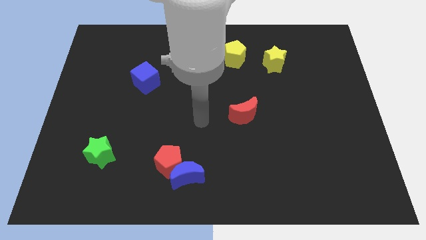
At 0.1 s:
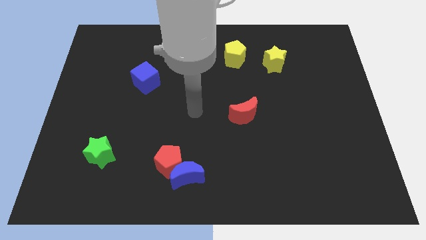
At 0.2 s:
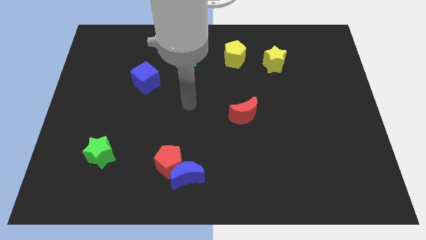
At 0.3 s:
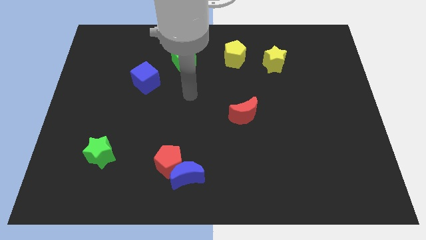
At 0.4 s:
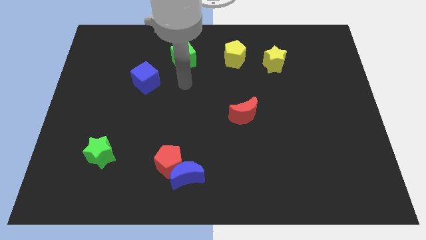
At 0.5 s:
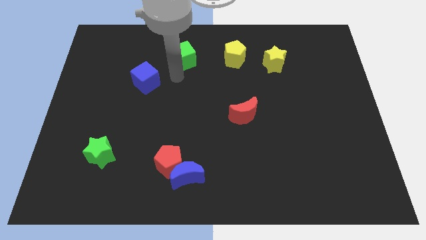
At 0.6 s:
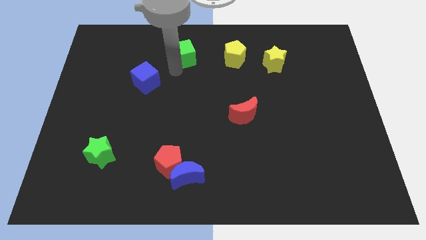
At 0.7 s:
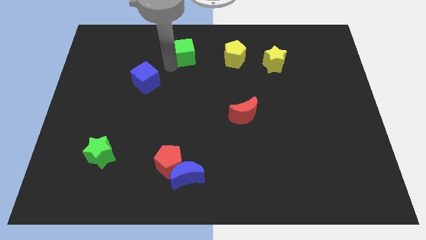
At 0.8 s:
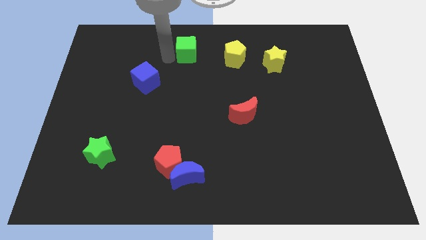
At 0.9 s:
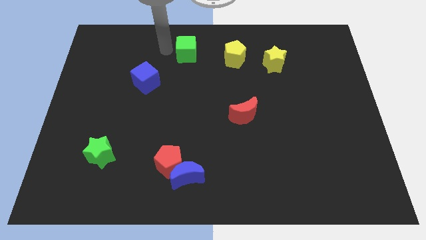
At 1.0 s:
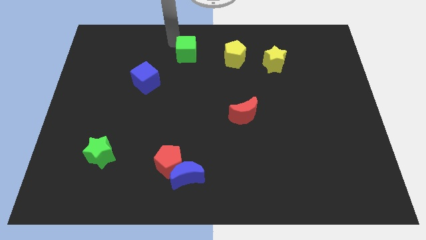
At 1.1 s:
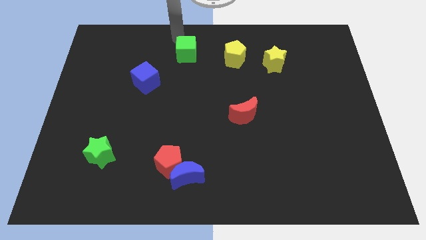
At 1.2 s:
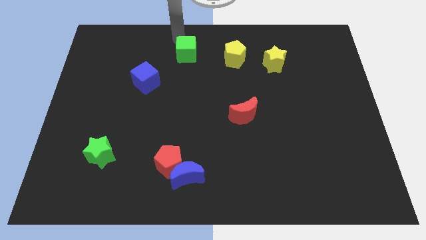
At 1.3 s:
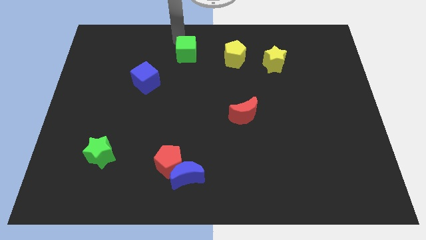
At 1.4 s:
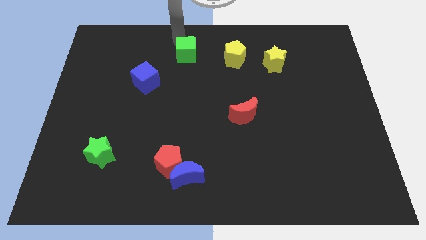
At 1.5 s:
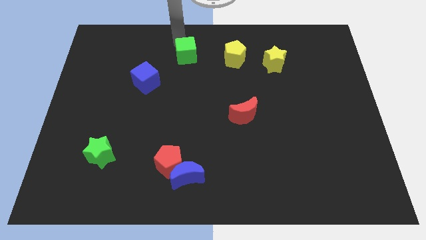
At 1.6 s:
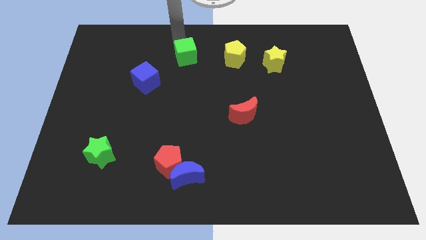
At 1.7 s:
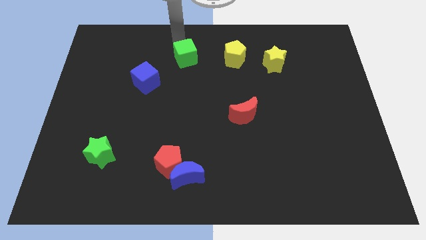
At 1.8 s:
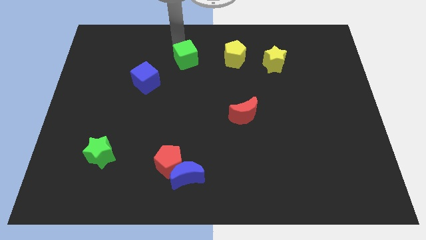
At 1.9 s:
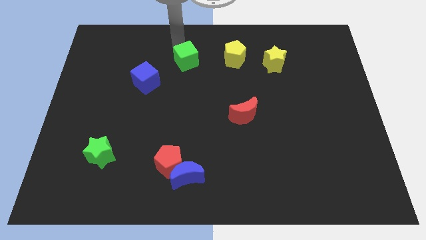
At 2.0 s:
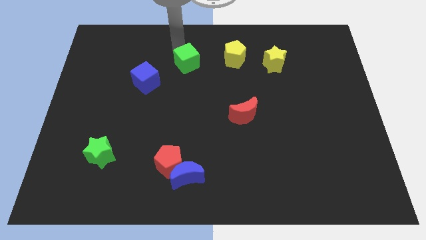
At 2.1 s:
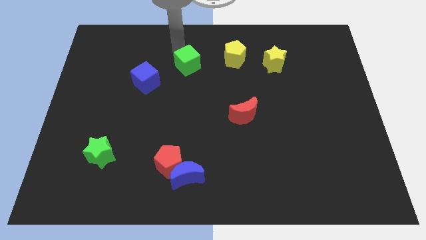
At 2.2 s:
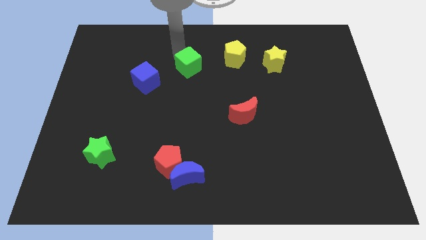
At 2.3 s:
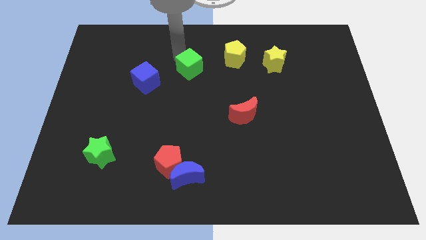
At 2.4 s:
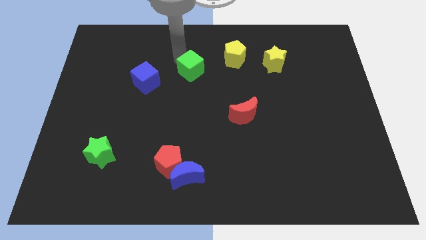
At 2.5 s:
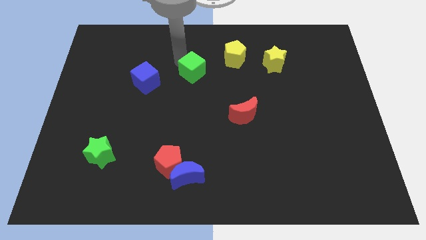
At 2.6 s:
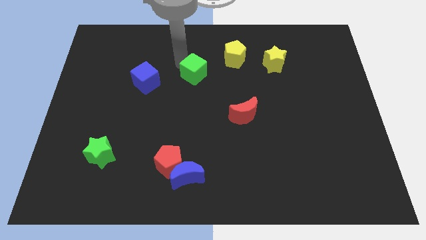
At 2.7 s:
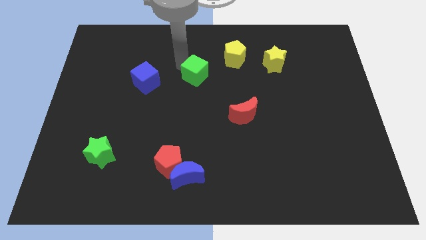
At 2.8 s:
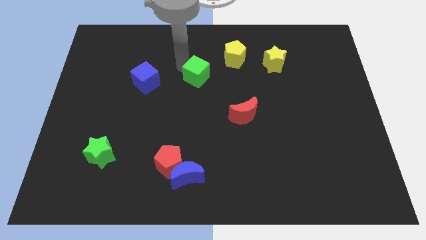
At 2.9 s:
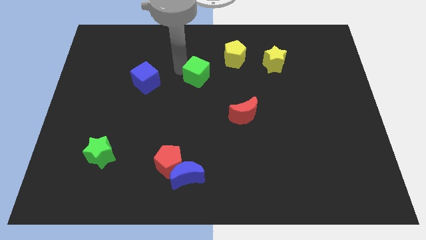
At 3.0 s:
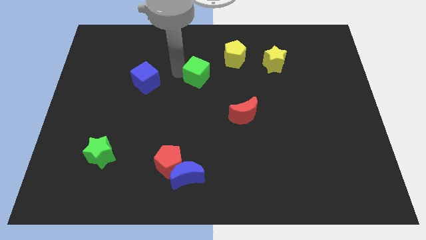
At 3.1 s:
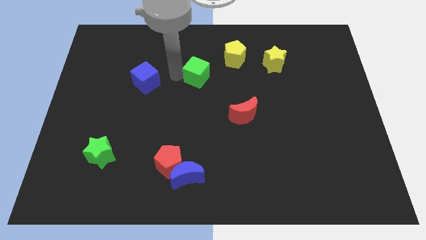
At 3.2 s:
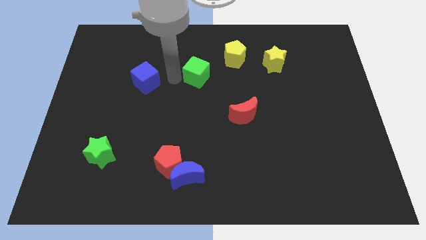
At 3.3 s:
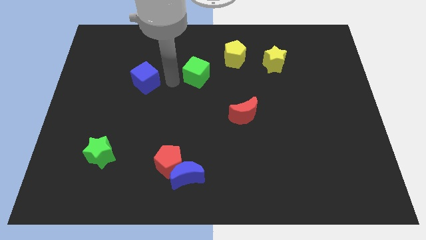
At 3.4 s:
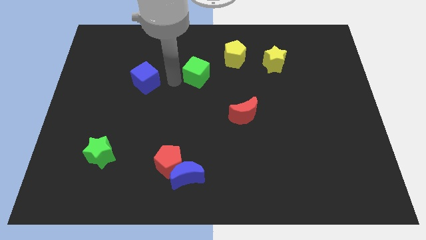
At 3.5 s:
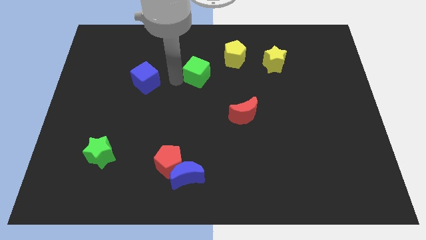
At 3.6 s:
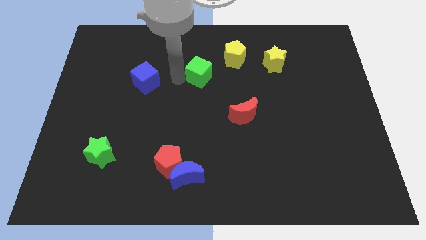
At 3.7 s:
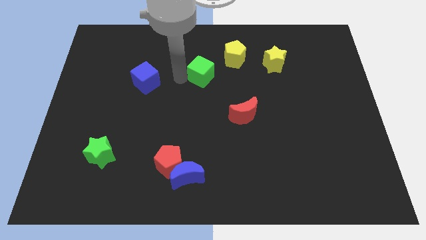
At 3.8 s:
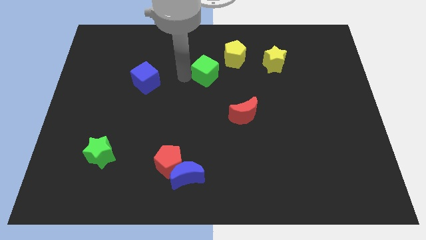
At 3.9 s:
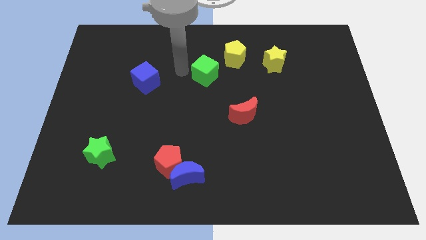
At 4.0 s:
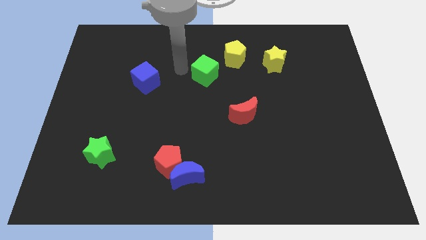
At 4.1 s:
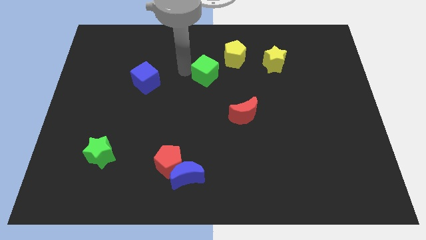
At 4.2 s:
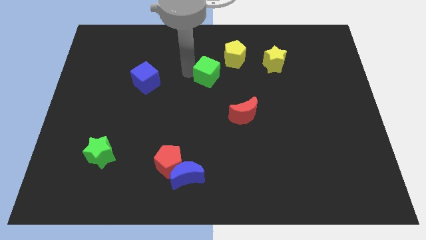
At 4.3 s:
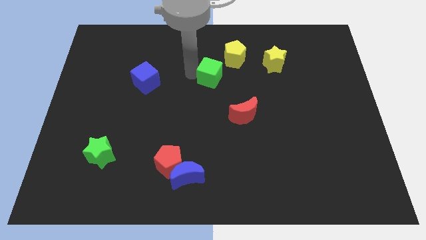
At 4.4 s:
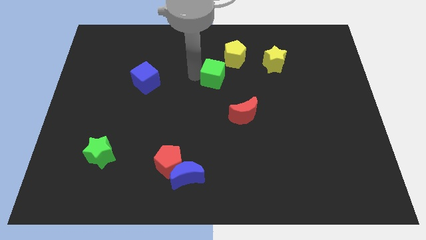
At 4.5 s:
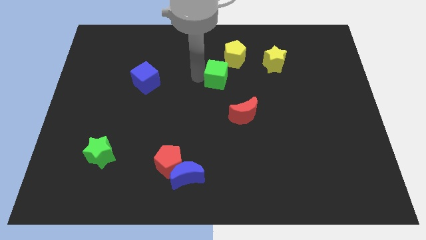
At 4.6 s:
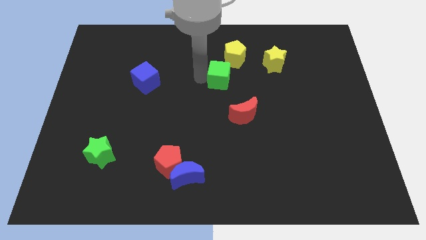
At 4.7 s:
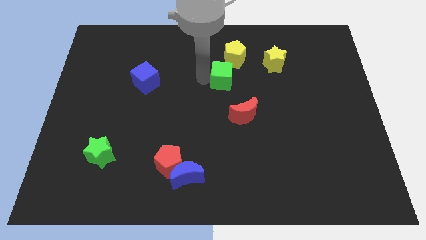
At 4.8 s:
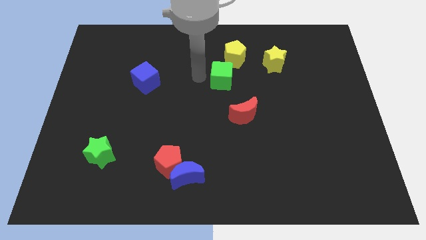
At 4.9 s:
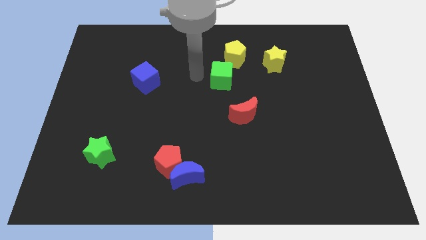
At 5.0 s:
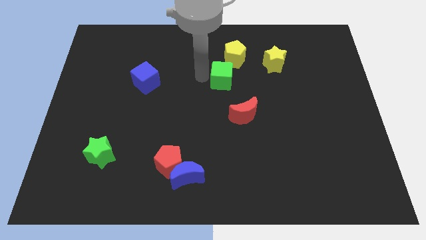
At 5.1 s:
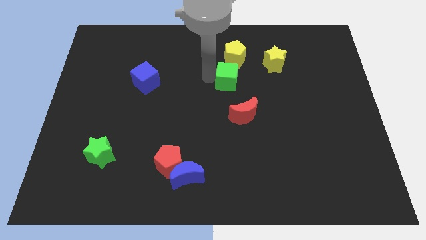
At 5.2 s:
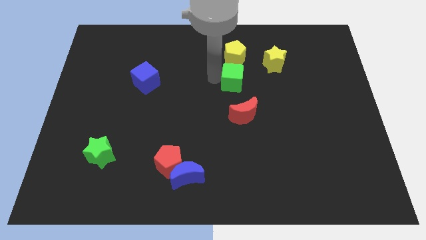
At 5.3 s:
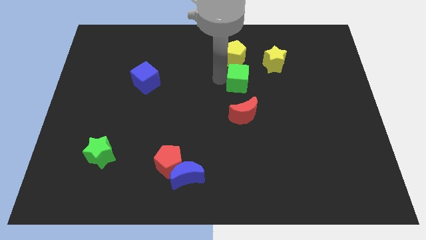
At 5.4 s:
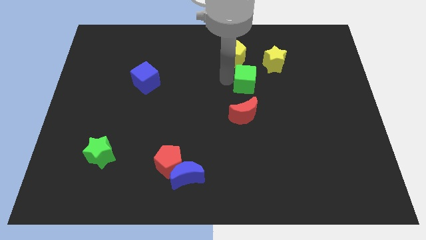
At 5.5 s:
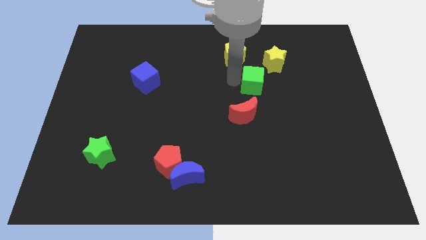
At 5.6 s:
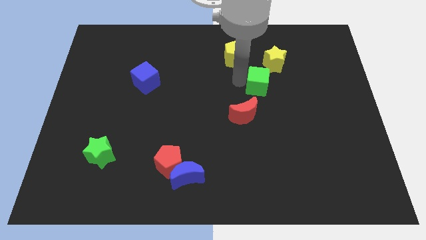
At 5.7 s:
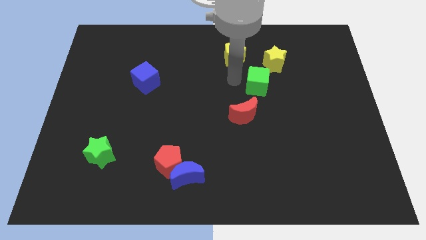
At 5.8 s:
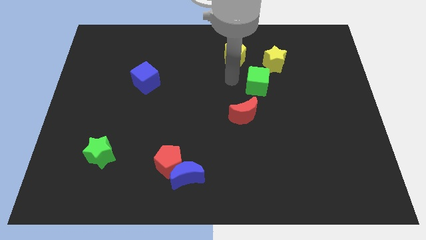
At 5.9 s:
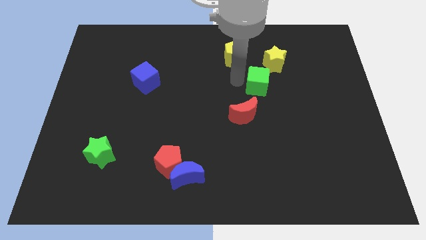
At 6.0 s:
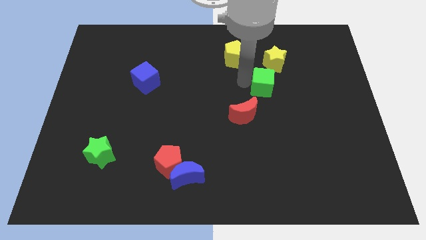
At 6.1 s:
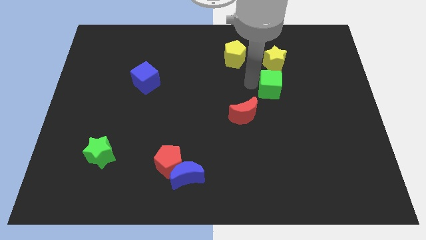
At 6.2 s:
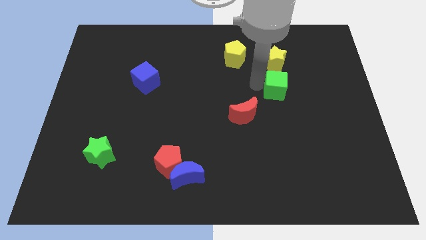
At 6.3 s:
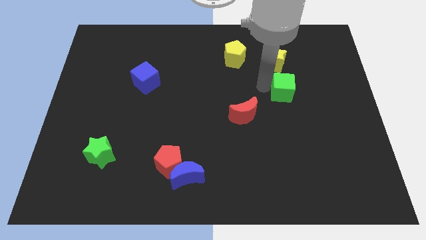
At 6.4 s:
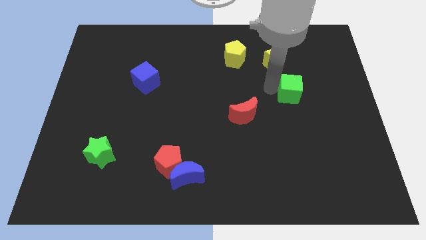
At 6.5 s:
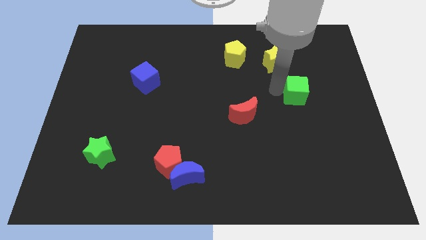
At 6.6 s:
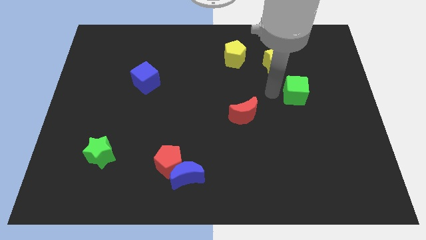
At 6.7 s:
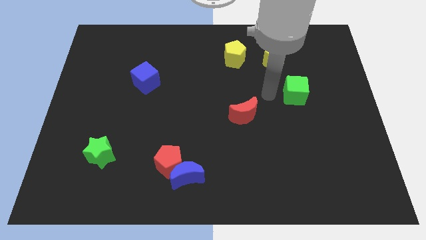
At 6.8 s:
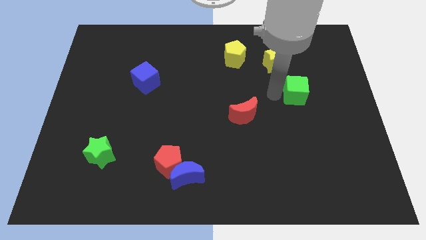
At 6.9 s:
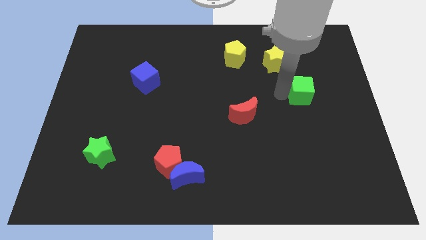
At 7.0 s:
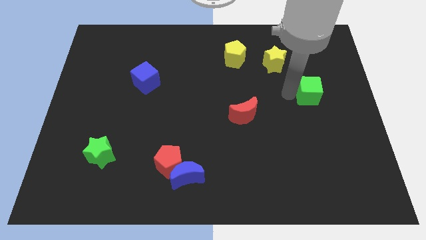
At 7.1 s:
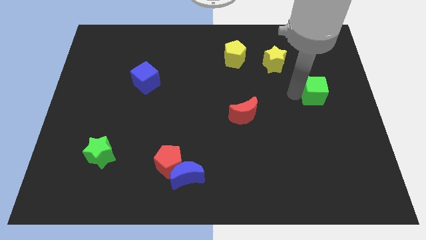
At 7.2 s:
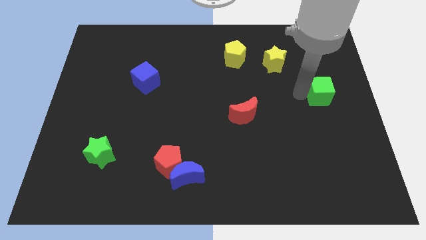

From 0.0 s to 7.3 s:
push the green cube to the center right
